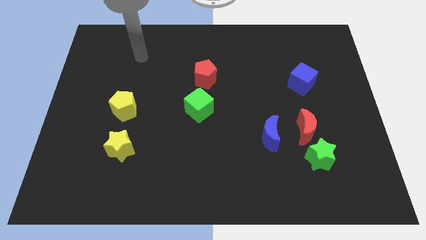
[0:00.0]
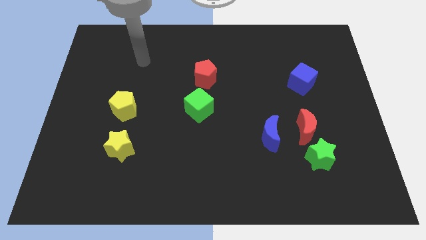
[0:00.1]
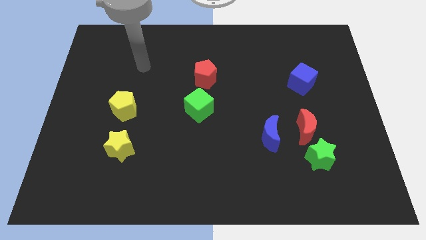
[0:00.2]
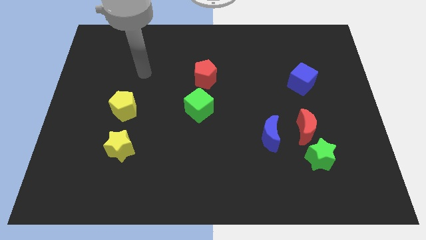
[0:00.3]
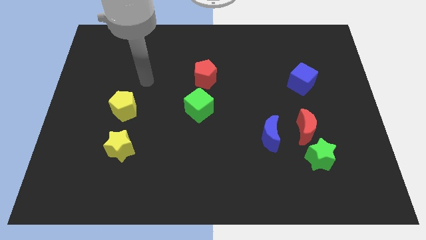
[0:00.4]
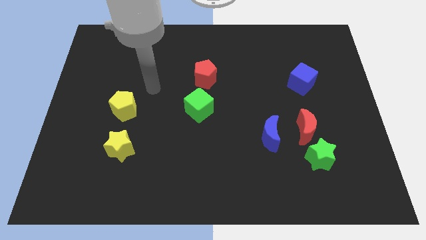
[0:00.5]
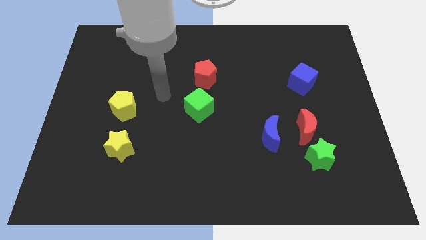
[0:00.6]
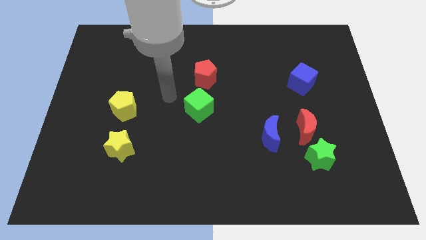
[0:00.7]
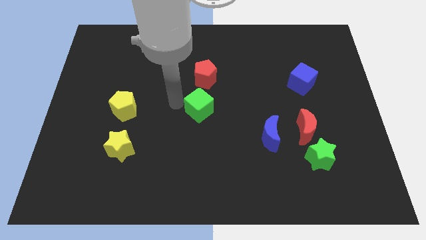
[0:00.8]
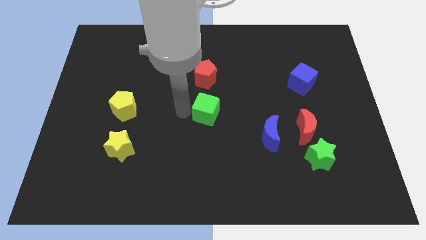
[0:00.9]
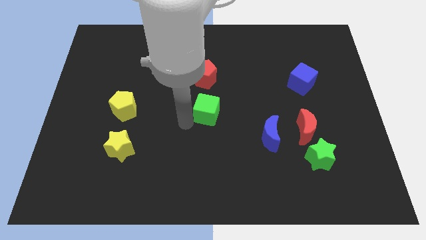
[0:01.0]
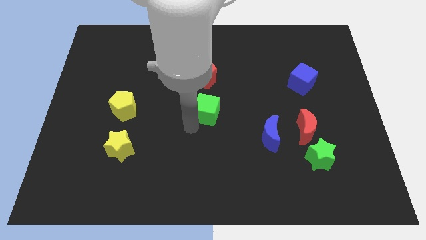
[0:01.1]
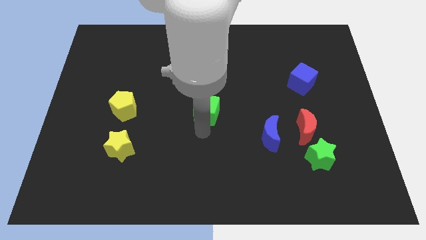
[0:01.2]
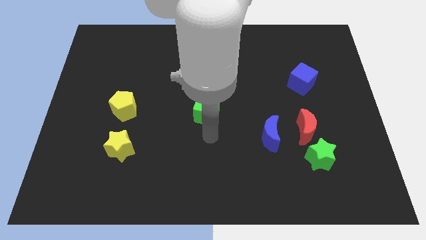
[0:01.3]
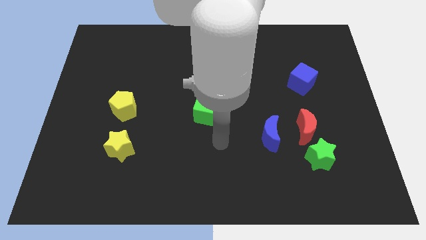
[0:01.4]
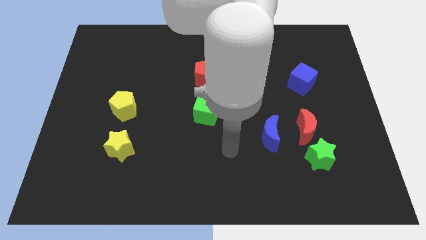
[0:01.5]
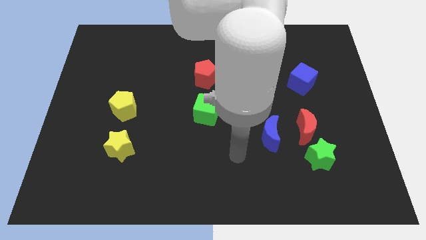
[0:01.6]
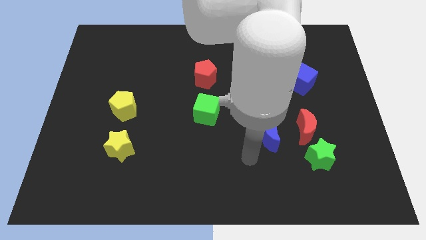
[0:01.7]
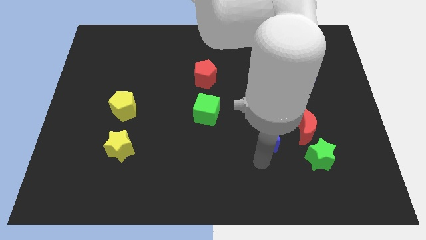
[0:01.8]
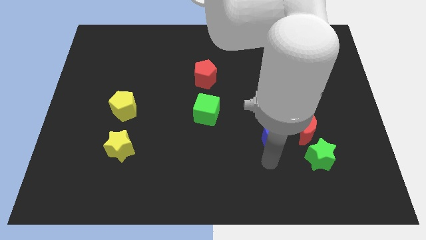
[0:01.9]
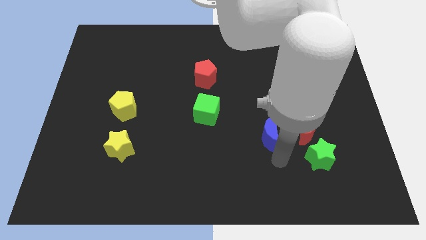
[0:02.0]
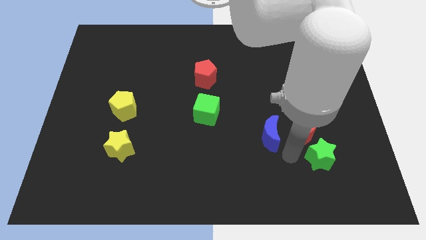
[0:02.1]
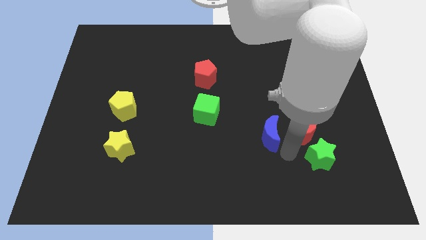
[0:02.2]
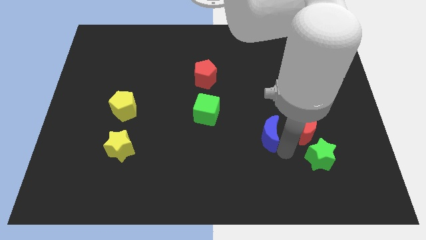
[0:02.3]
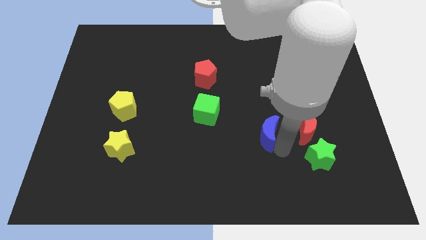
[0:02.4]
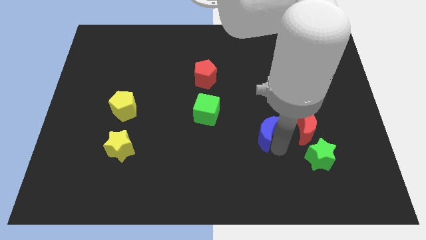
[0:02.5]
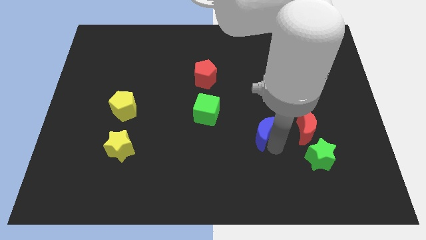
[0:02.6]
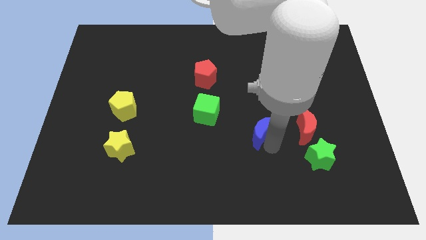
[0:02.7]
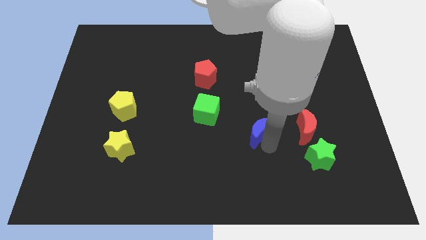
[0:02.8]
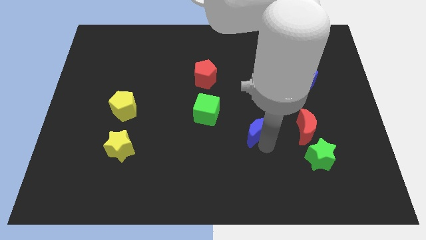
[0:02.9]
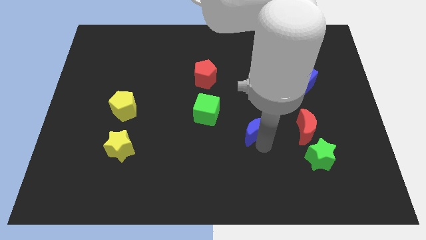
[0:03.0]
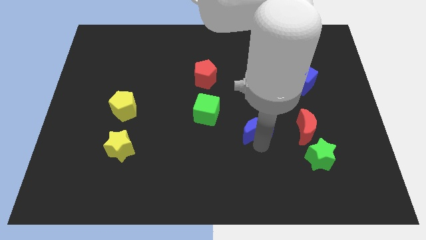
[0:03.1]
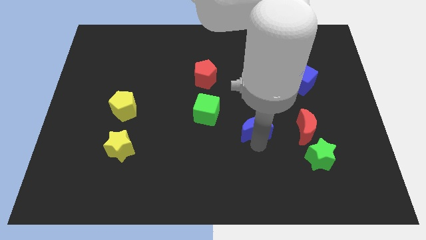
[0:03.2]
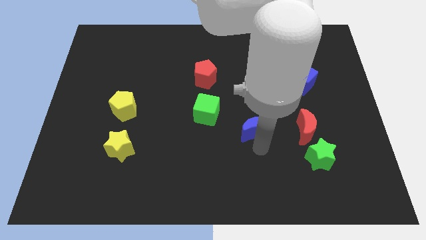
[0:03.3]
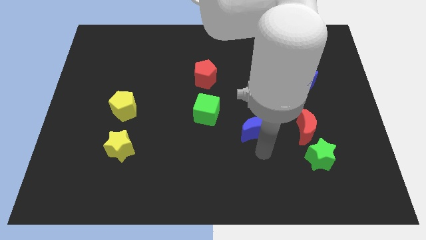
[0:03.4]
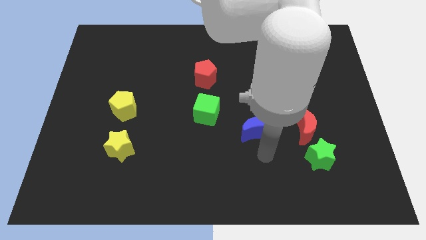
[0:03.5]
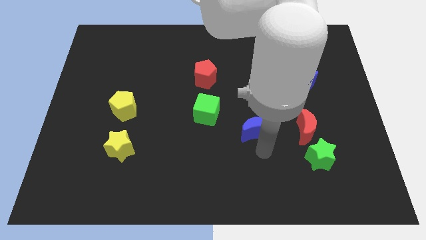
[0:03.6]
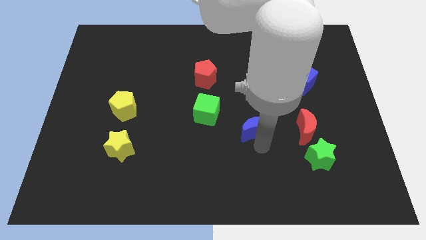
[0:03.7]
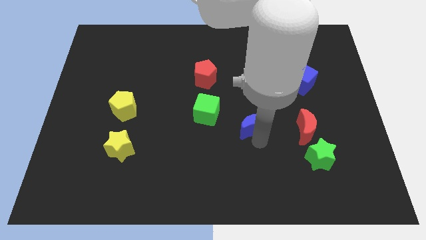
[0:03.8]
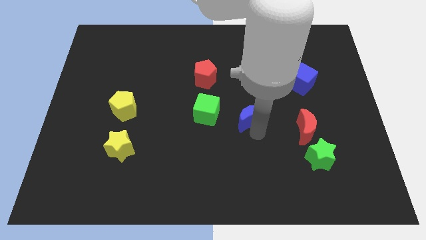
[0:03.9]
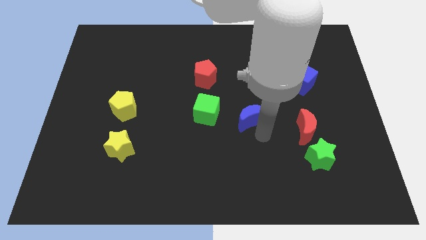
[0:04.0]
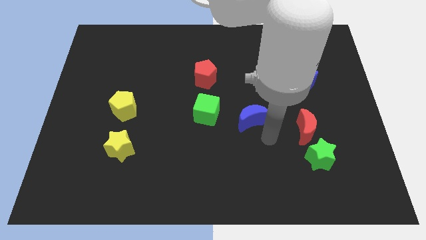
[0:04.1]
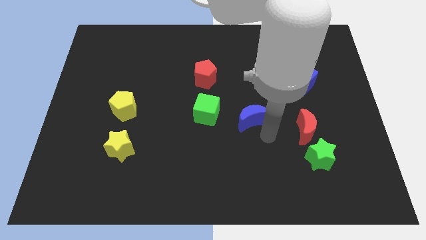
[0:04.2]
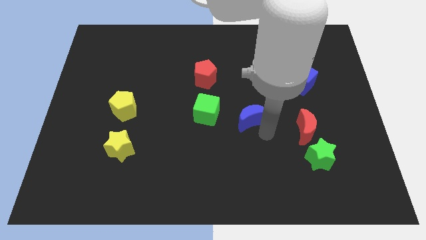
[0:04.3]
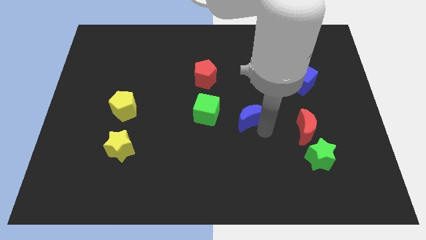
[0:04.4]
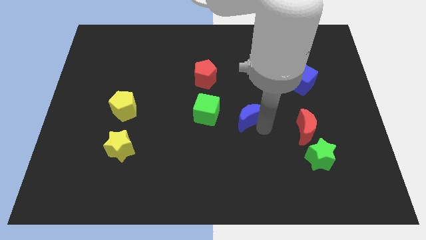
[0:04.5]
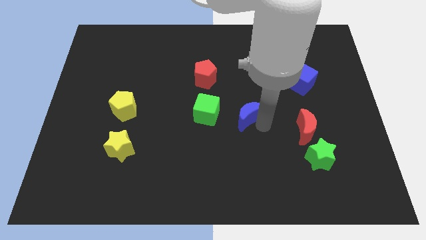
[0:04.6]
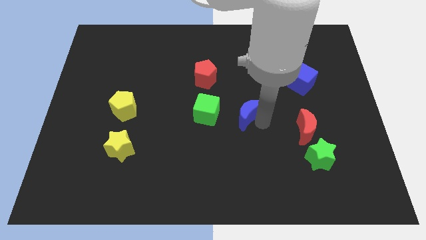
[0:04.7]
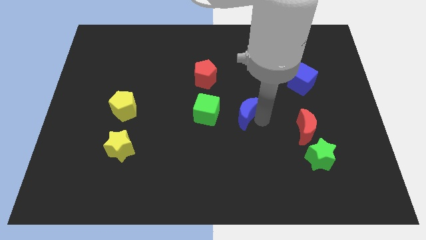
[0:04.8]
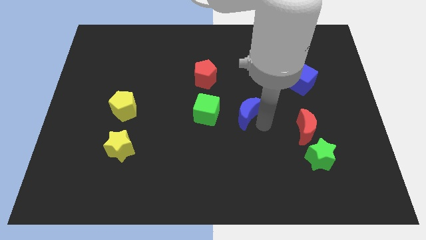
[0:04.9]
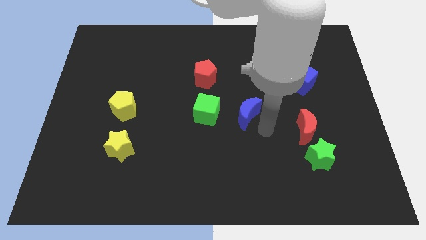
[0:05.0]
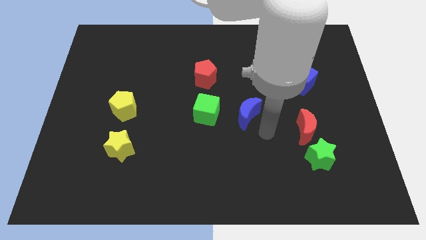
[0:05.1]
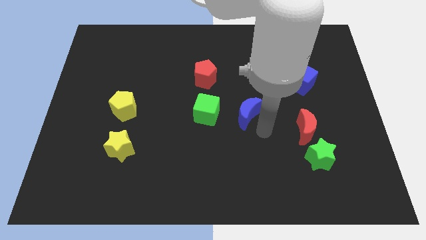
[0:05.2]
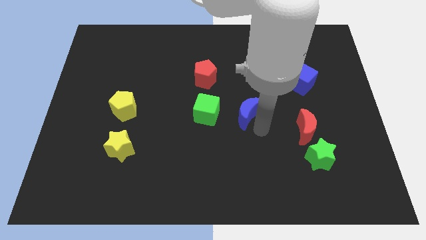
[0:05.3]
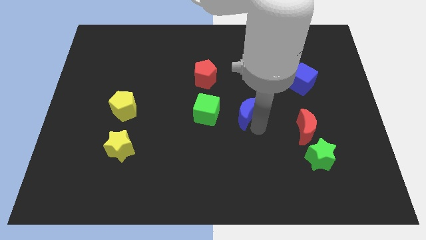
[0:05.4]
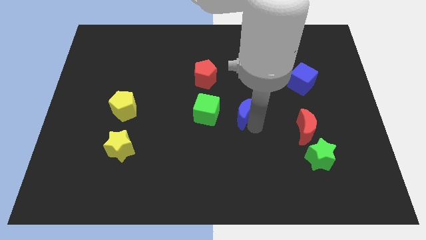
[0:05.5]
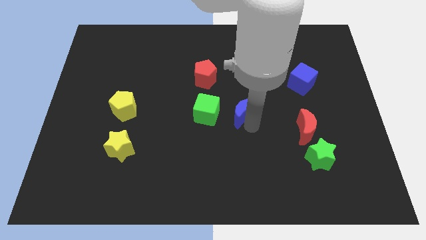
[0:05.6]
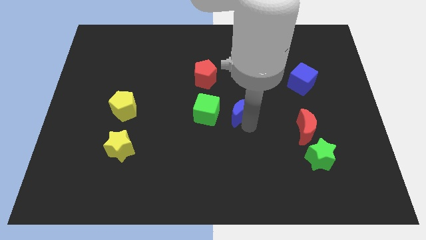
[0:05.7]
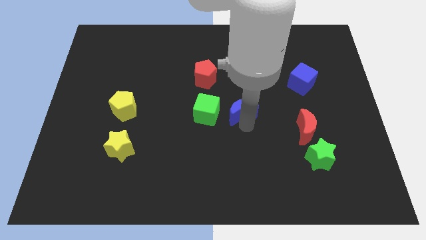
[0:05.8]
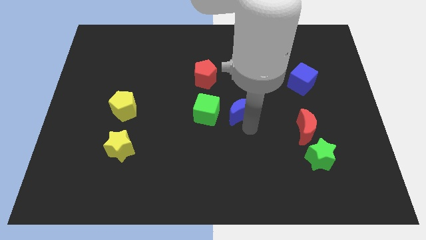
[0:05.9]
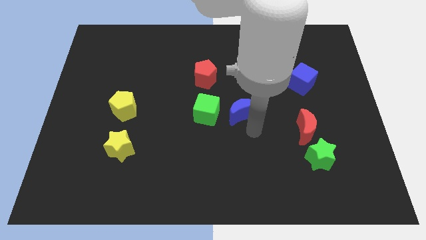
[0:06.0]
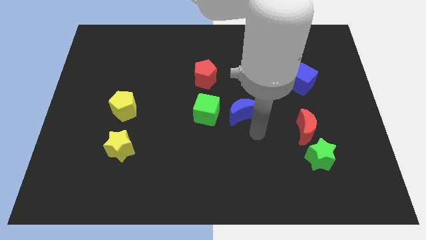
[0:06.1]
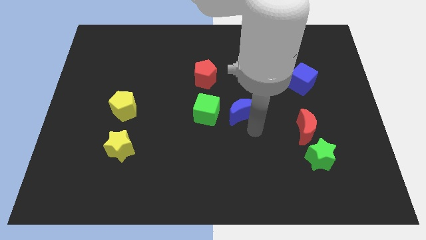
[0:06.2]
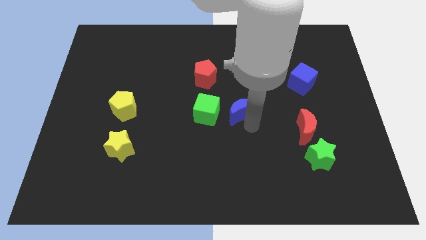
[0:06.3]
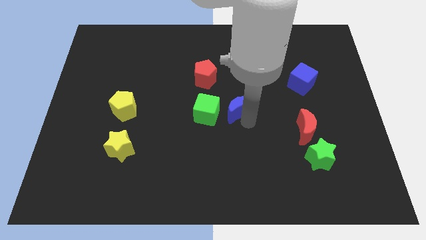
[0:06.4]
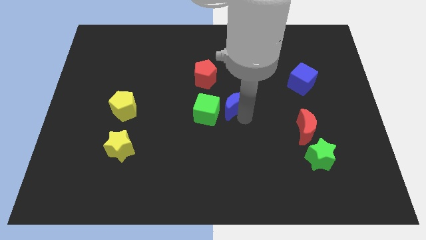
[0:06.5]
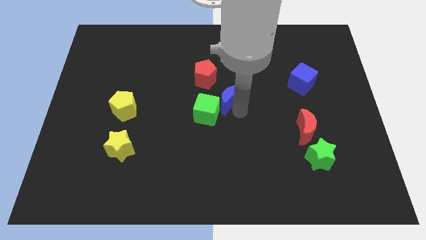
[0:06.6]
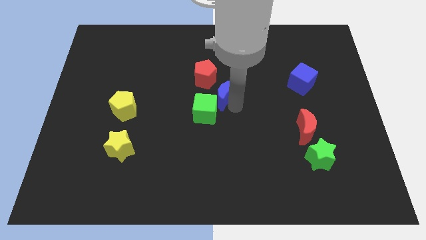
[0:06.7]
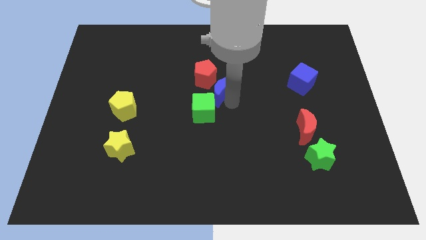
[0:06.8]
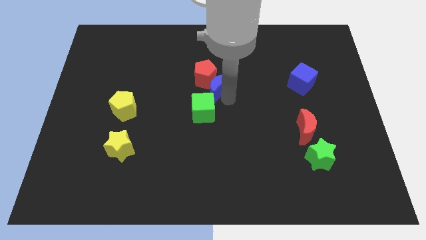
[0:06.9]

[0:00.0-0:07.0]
put the blue moon next to the red pentagon

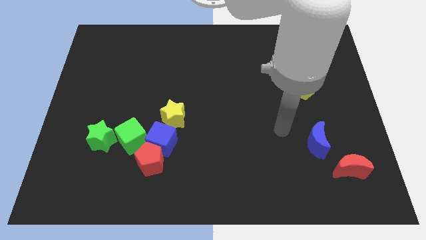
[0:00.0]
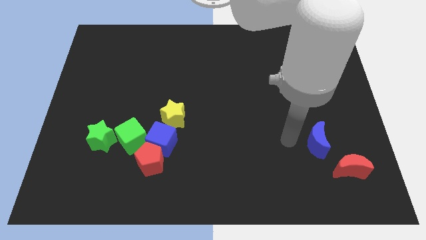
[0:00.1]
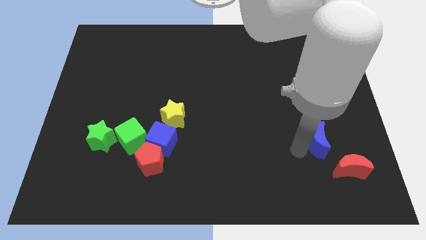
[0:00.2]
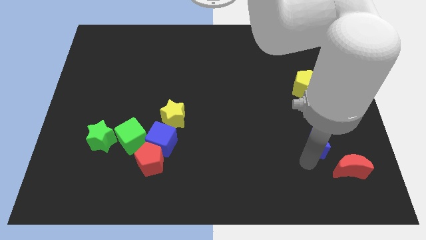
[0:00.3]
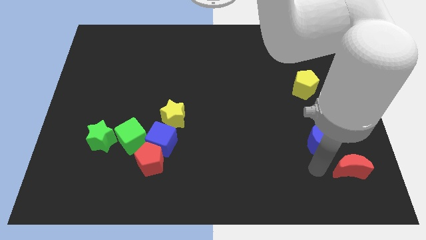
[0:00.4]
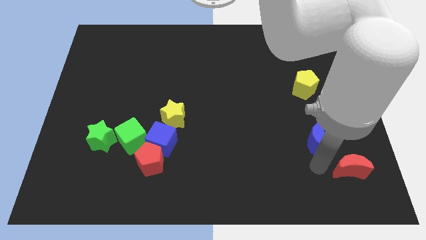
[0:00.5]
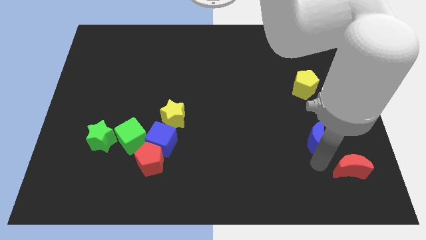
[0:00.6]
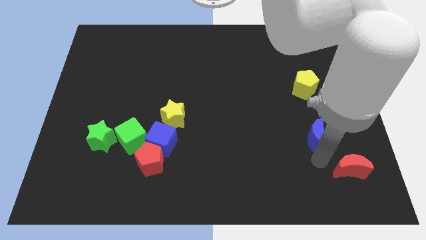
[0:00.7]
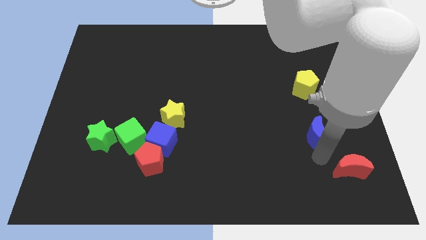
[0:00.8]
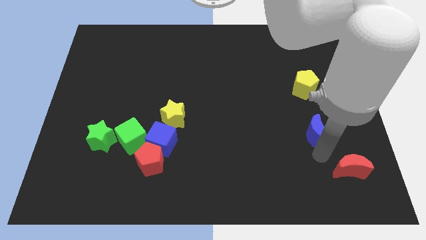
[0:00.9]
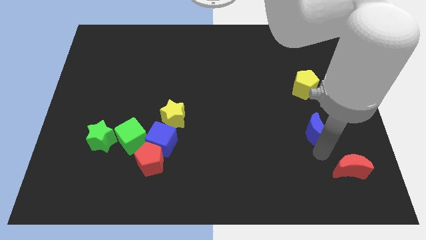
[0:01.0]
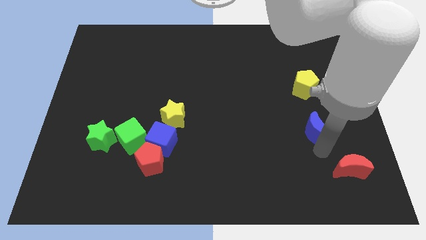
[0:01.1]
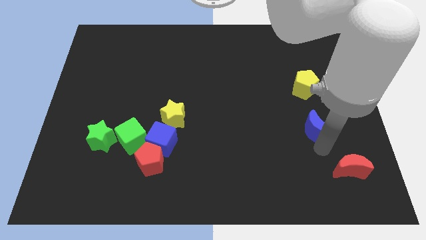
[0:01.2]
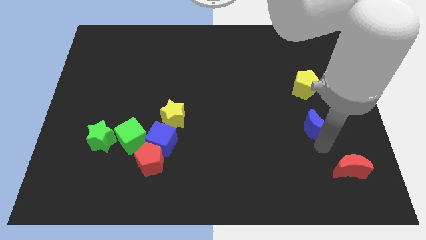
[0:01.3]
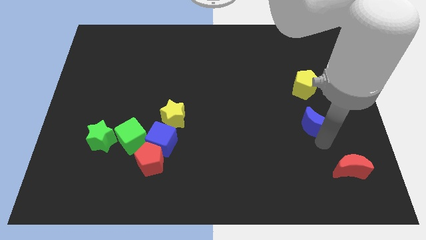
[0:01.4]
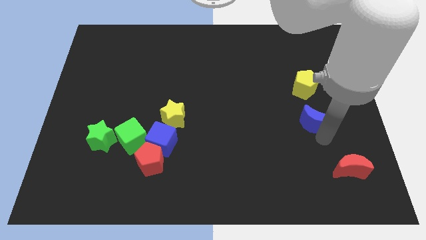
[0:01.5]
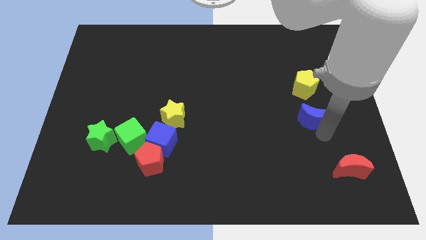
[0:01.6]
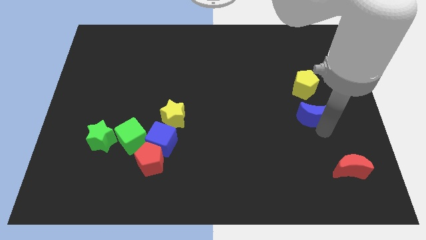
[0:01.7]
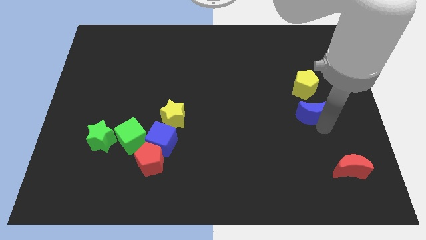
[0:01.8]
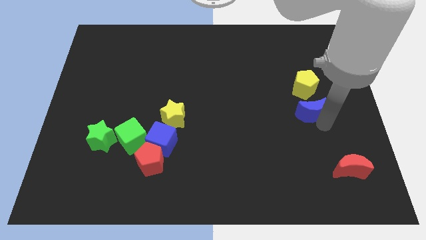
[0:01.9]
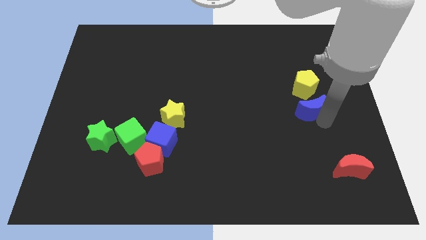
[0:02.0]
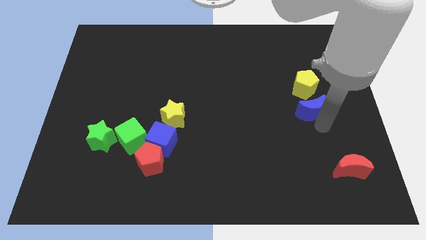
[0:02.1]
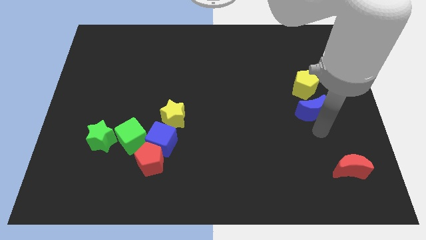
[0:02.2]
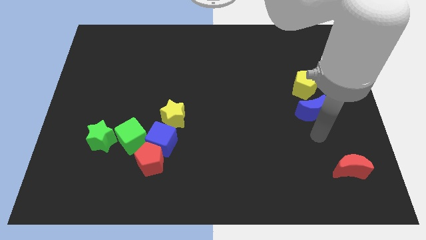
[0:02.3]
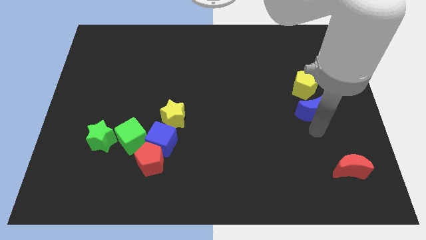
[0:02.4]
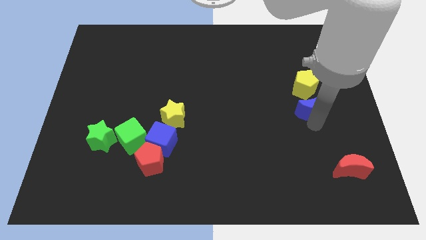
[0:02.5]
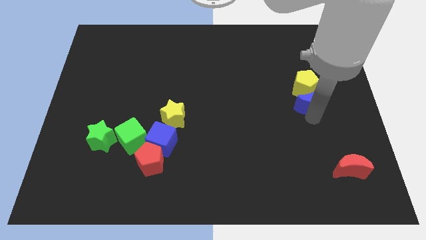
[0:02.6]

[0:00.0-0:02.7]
move the blue moon to the yellow pentagon
